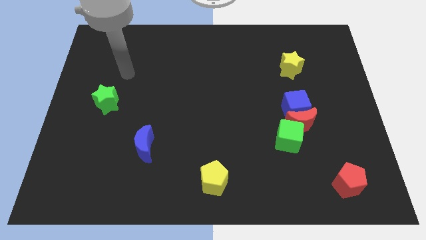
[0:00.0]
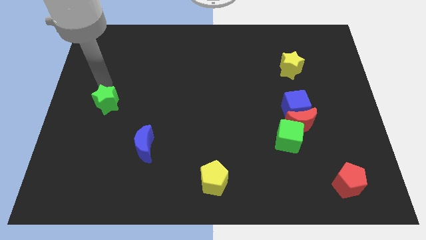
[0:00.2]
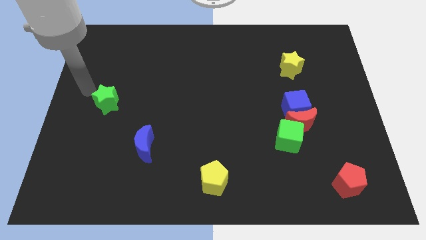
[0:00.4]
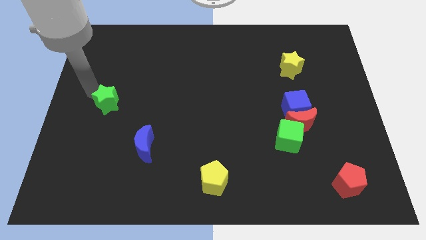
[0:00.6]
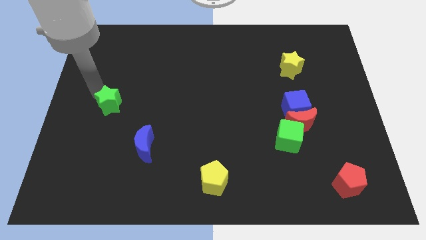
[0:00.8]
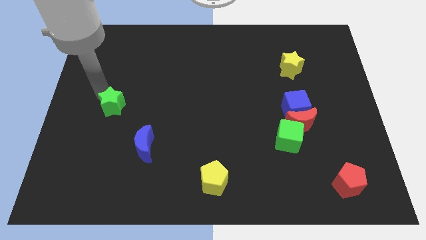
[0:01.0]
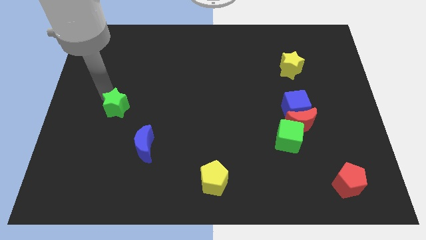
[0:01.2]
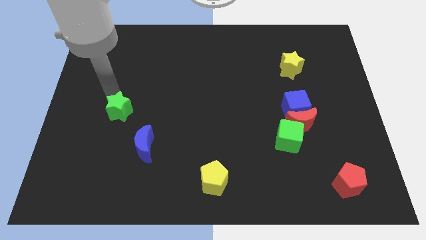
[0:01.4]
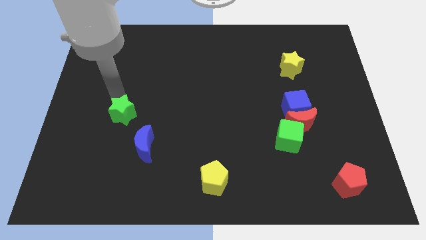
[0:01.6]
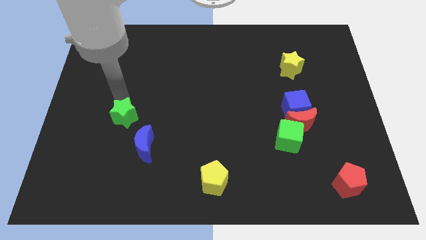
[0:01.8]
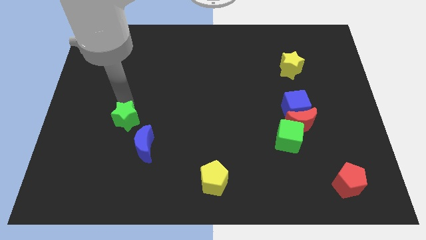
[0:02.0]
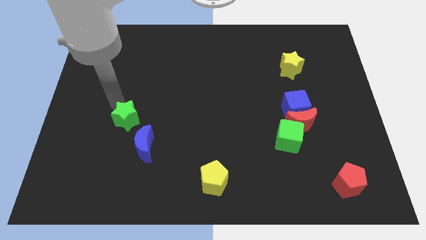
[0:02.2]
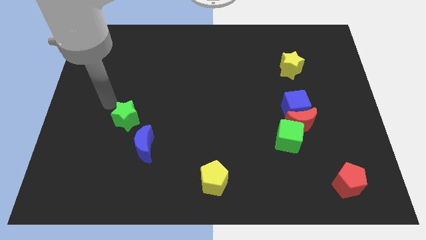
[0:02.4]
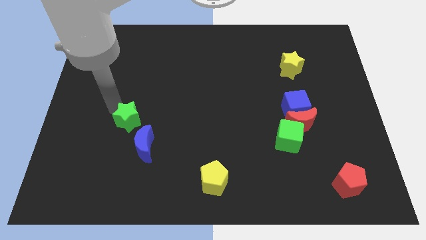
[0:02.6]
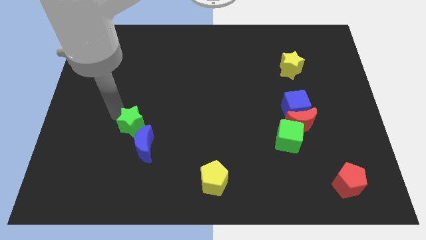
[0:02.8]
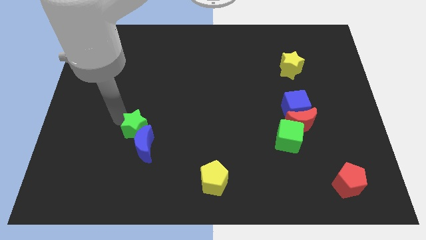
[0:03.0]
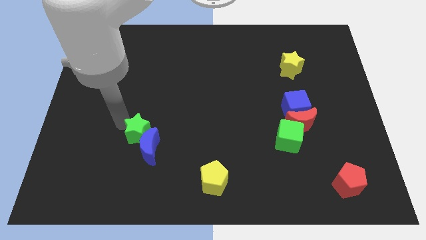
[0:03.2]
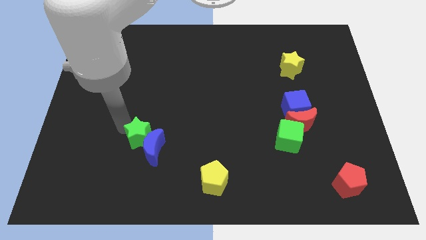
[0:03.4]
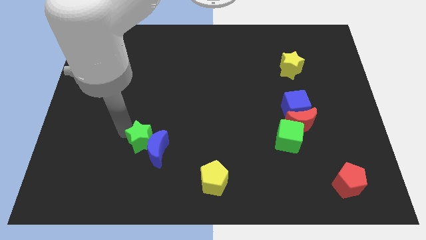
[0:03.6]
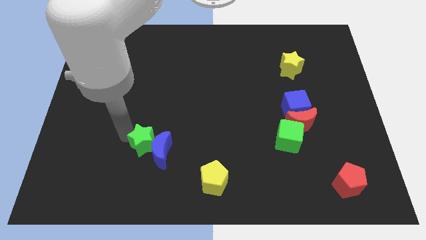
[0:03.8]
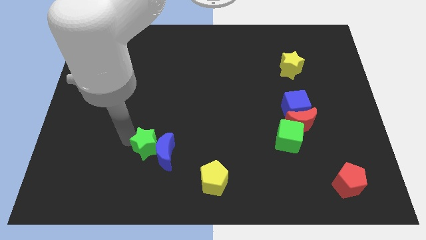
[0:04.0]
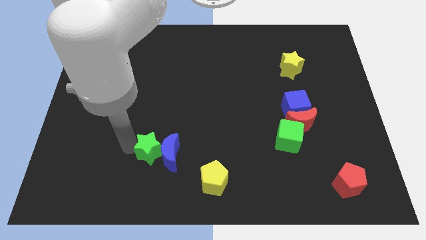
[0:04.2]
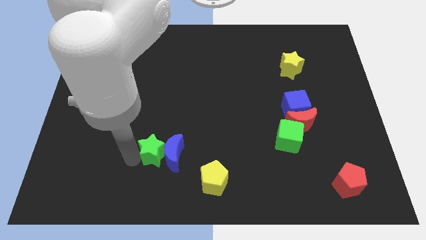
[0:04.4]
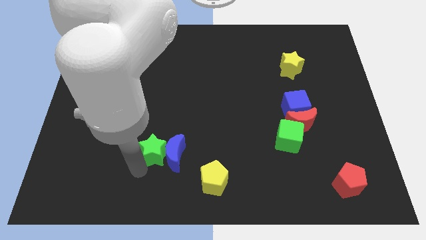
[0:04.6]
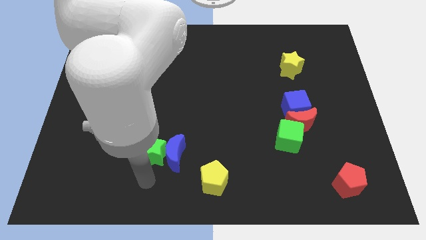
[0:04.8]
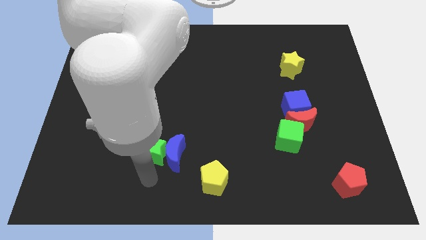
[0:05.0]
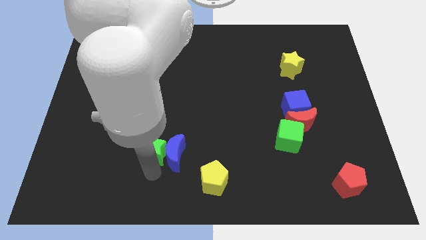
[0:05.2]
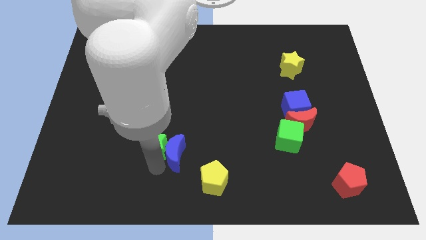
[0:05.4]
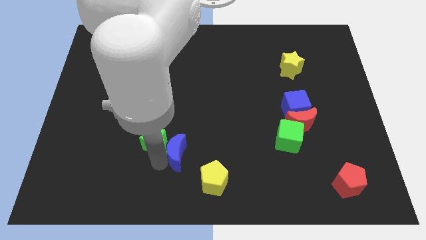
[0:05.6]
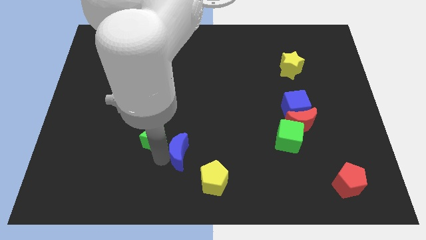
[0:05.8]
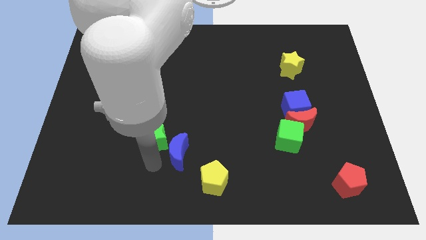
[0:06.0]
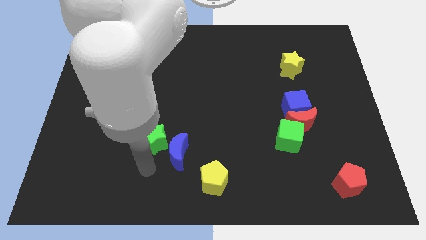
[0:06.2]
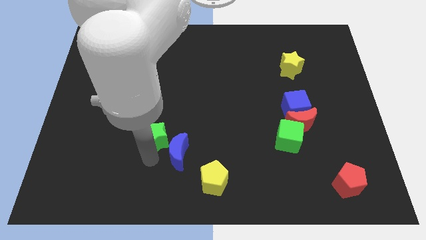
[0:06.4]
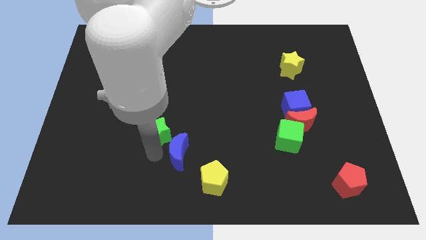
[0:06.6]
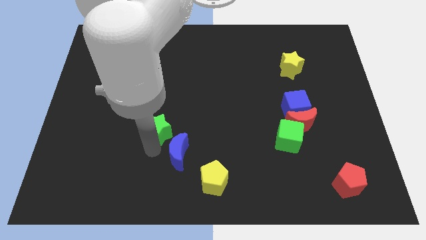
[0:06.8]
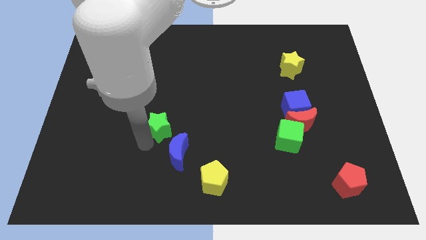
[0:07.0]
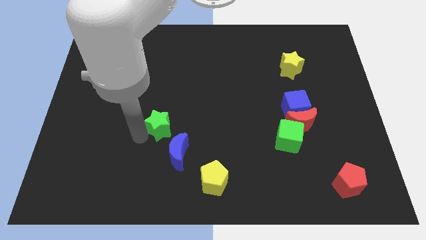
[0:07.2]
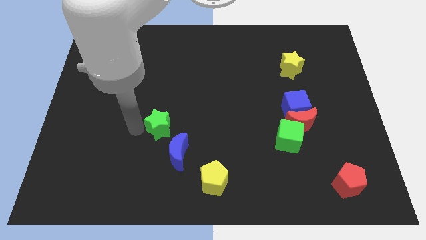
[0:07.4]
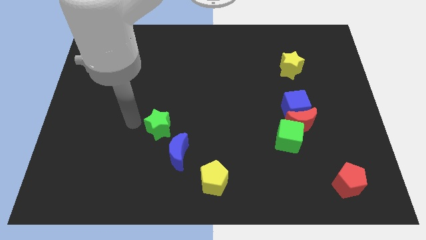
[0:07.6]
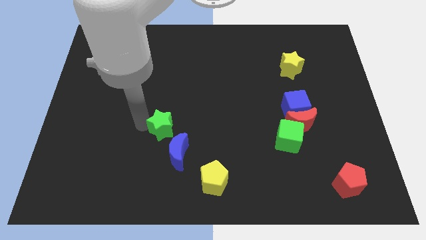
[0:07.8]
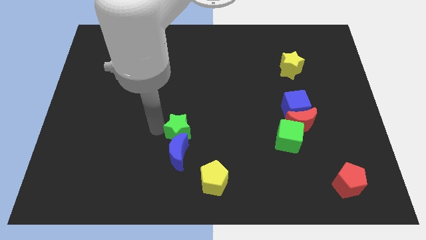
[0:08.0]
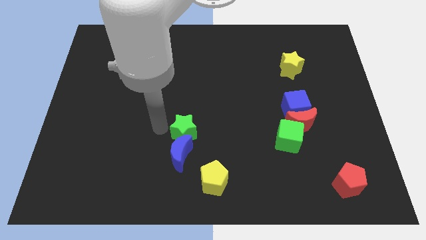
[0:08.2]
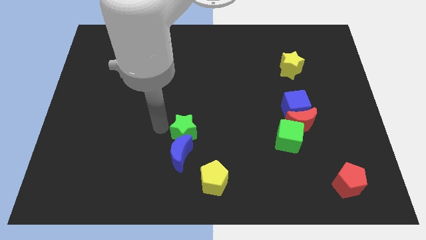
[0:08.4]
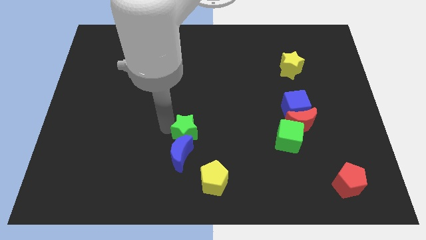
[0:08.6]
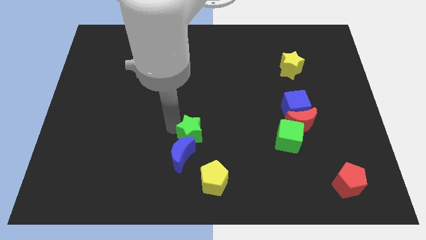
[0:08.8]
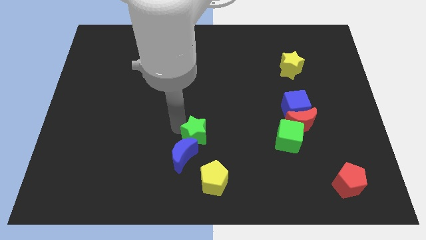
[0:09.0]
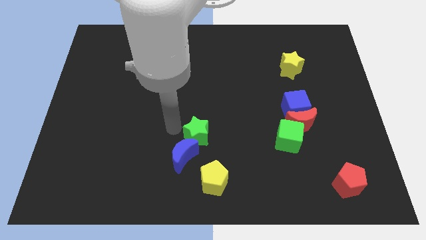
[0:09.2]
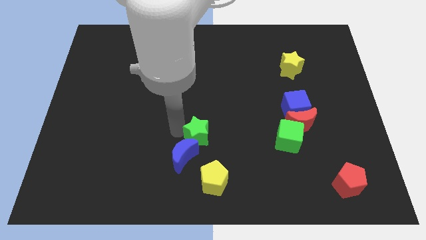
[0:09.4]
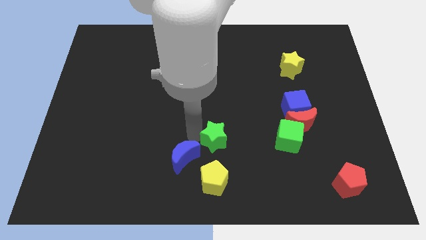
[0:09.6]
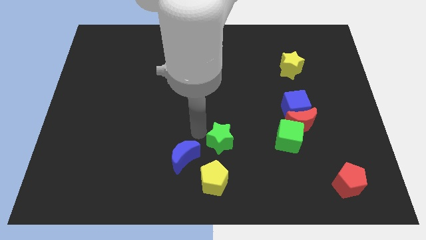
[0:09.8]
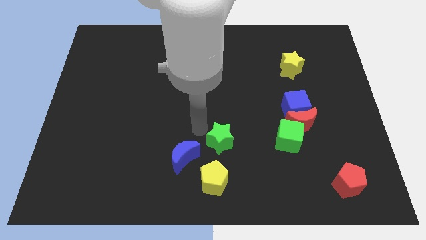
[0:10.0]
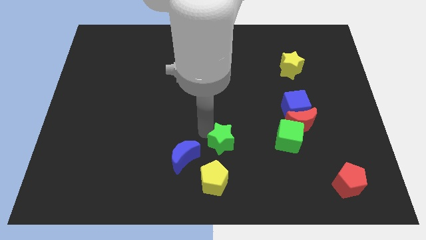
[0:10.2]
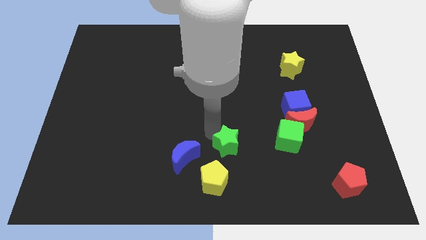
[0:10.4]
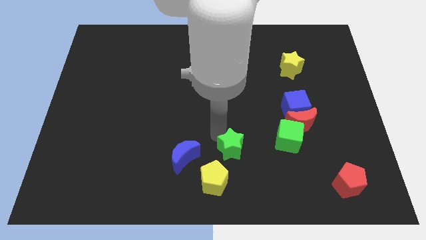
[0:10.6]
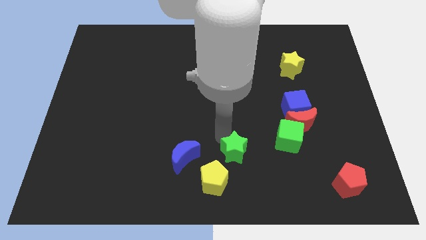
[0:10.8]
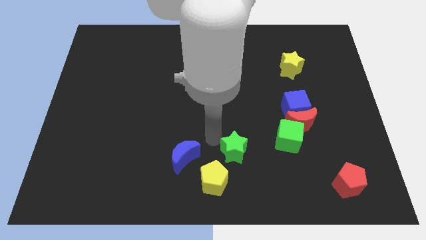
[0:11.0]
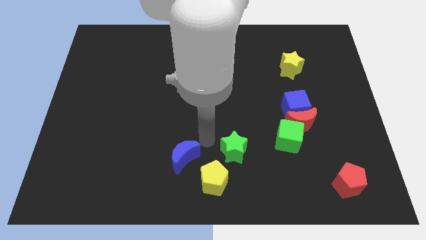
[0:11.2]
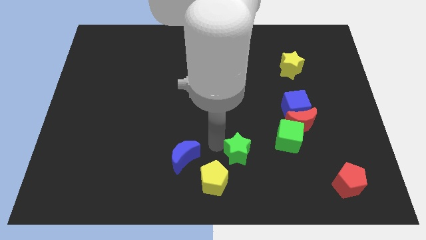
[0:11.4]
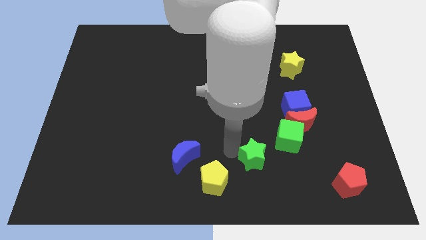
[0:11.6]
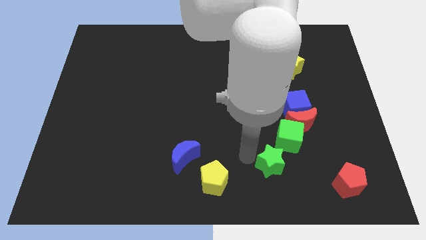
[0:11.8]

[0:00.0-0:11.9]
move the green star to the bottom side of the green cube

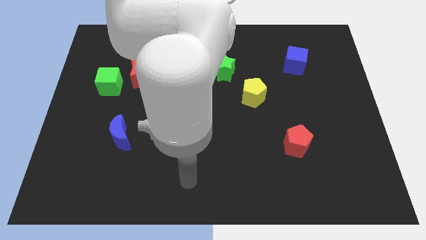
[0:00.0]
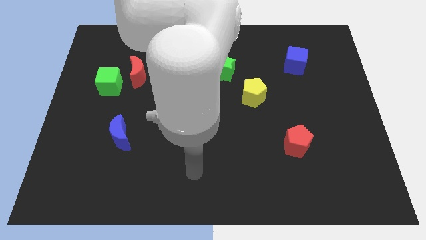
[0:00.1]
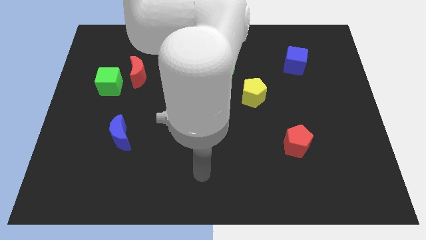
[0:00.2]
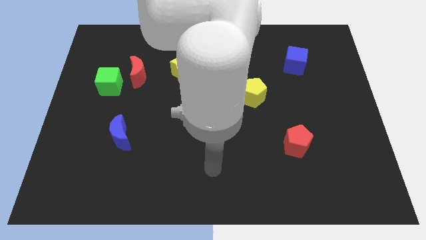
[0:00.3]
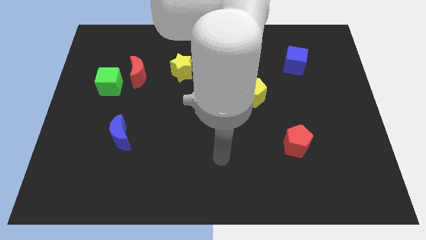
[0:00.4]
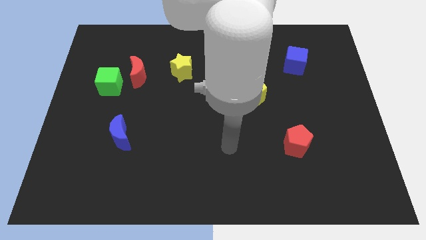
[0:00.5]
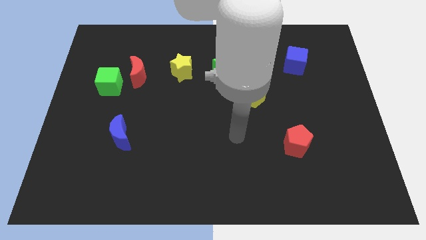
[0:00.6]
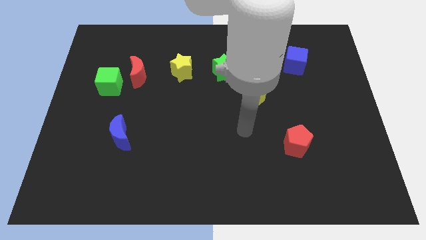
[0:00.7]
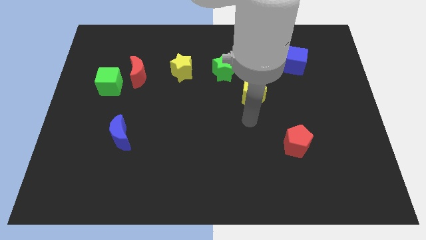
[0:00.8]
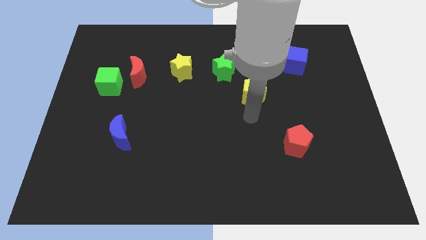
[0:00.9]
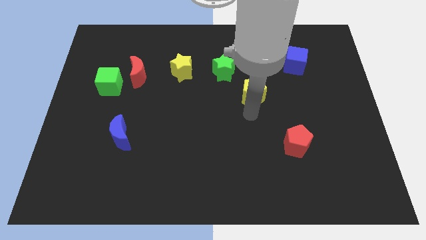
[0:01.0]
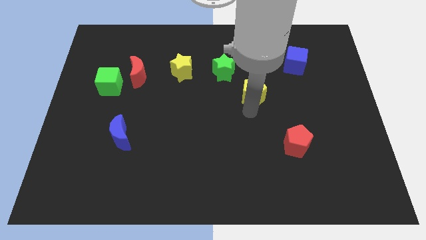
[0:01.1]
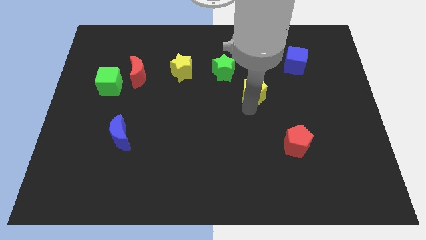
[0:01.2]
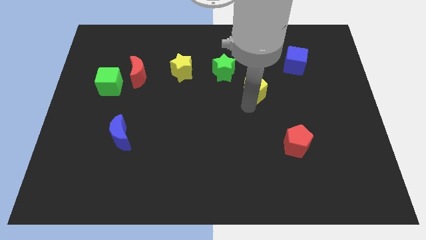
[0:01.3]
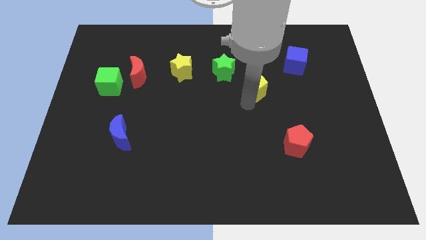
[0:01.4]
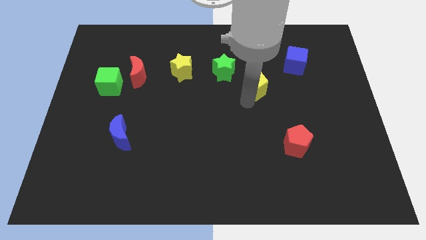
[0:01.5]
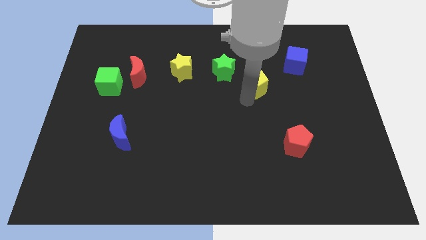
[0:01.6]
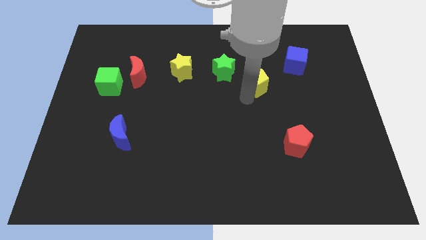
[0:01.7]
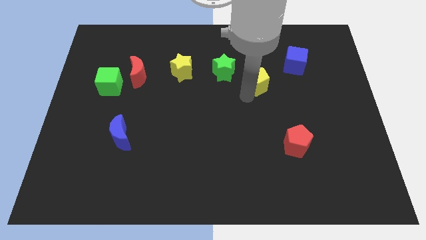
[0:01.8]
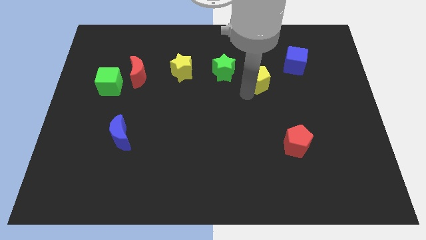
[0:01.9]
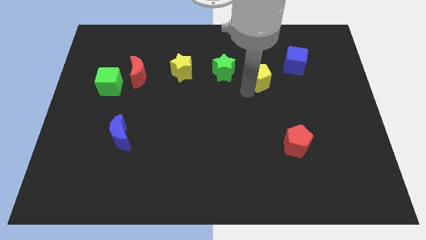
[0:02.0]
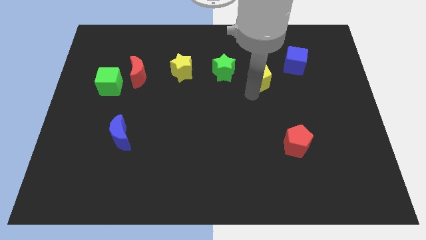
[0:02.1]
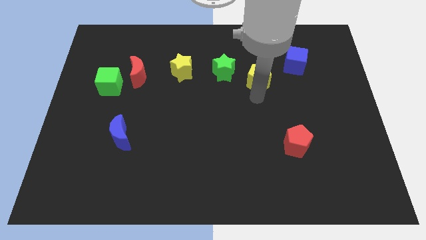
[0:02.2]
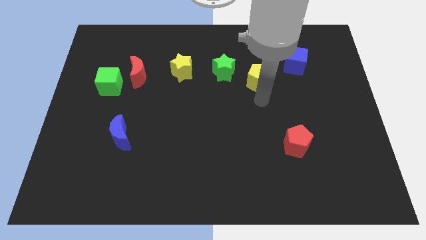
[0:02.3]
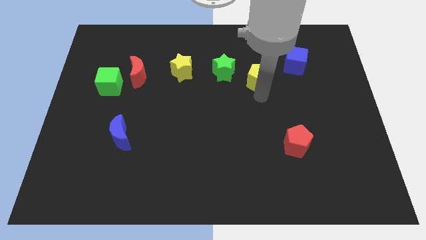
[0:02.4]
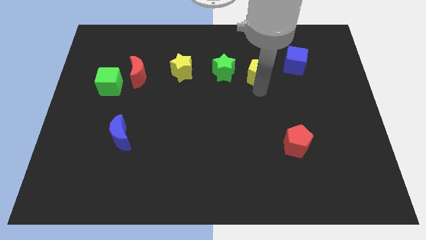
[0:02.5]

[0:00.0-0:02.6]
push the yellow pentagon just left of the blue cube
